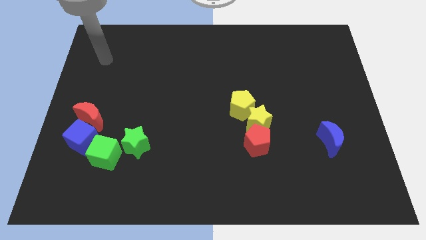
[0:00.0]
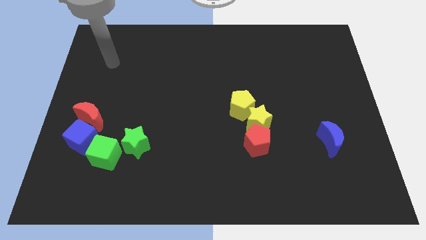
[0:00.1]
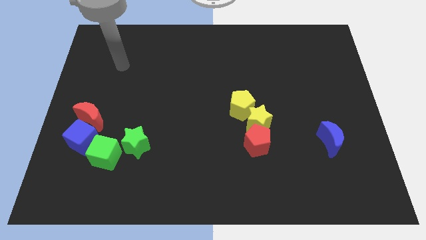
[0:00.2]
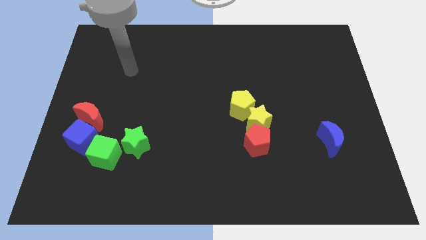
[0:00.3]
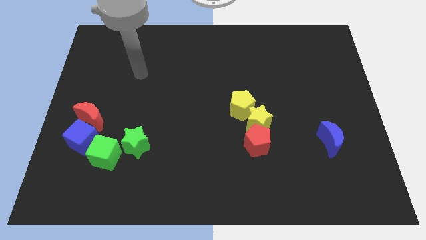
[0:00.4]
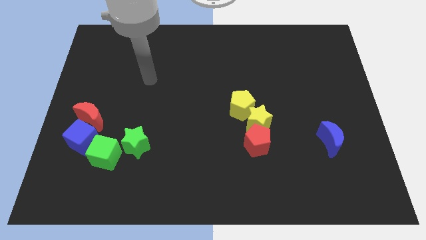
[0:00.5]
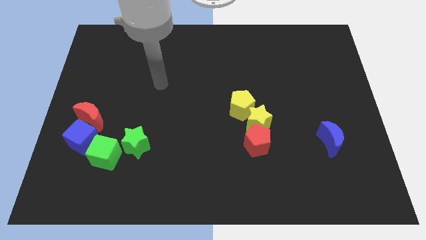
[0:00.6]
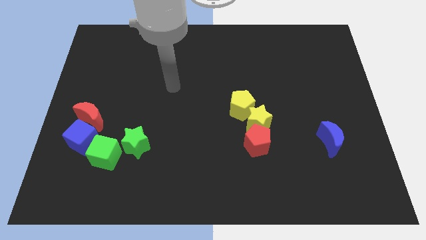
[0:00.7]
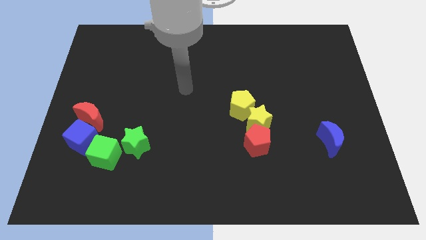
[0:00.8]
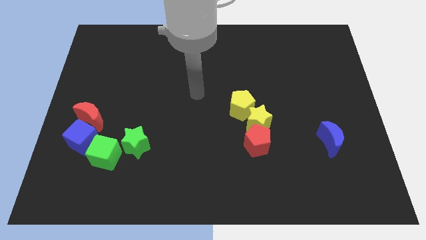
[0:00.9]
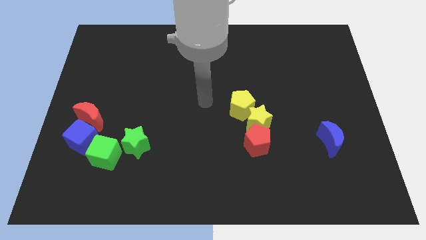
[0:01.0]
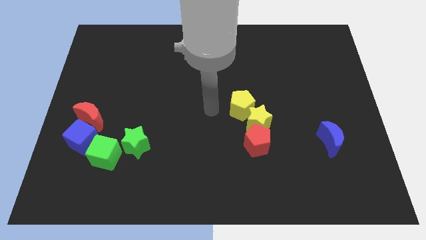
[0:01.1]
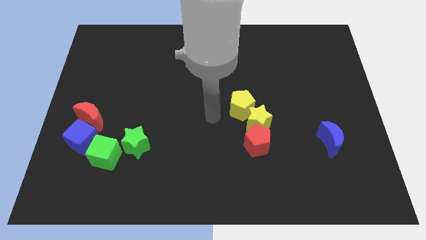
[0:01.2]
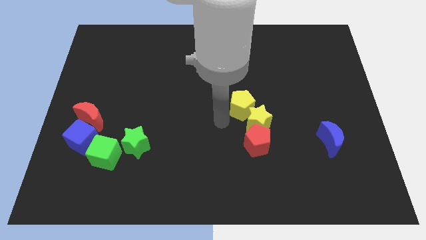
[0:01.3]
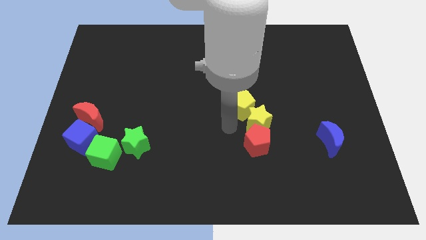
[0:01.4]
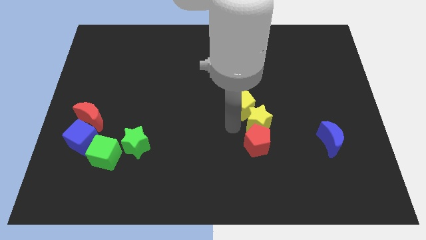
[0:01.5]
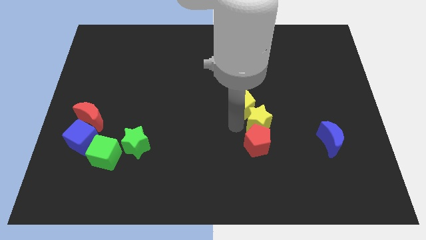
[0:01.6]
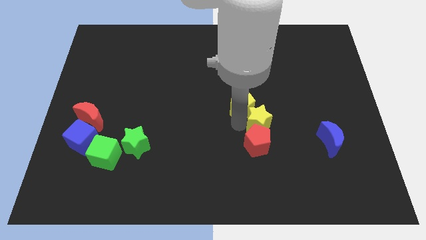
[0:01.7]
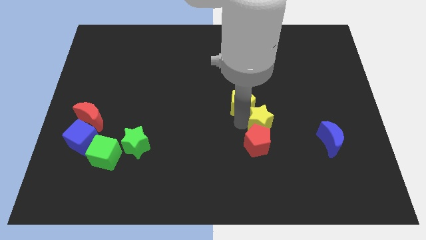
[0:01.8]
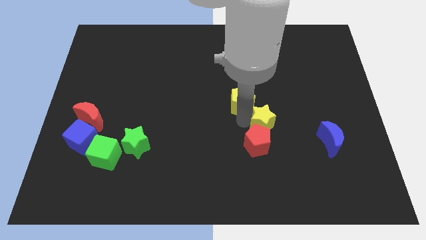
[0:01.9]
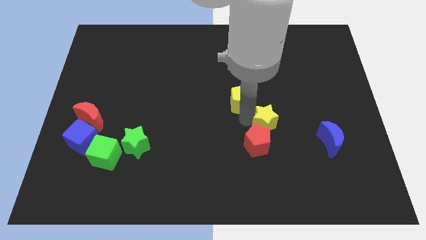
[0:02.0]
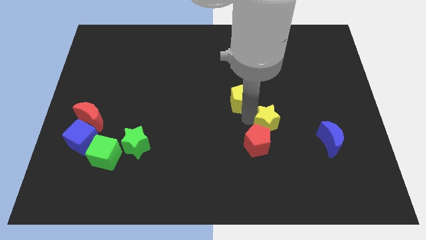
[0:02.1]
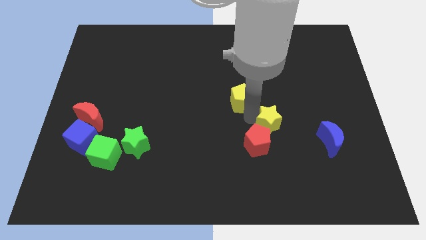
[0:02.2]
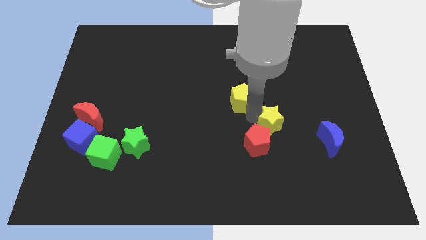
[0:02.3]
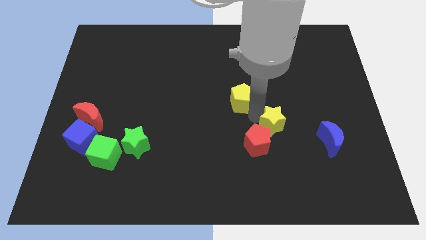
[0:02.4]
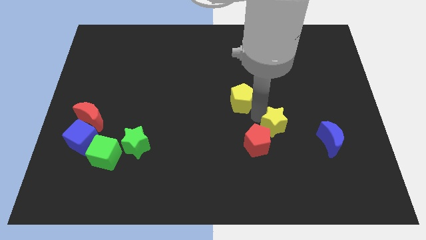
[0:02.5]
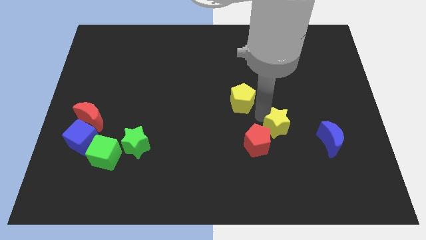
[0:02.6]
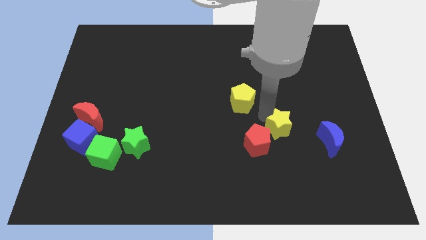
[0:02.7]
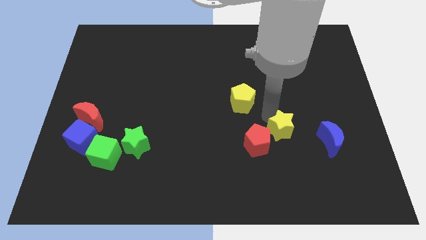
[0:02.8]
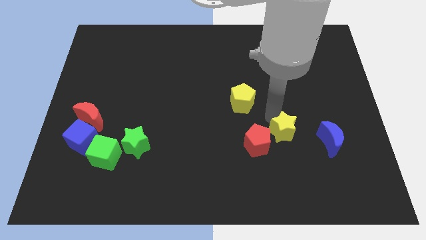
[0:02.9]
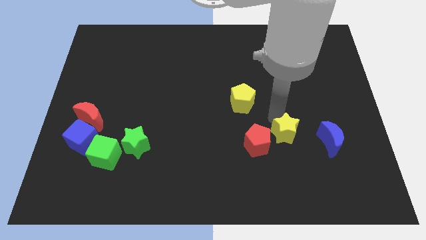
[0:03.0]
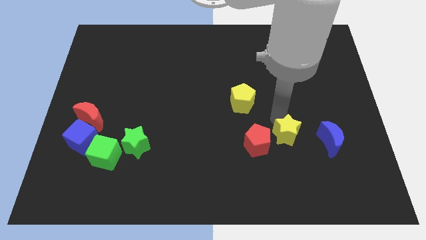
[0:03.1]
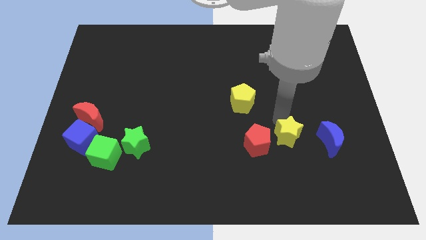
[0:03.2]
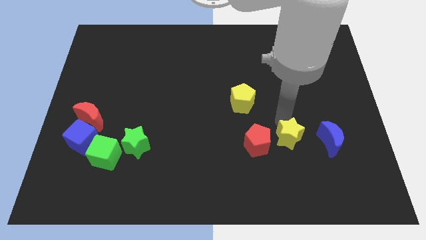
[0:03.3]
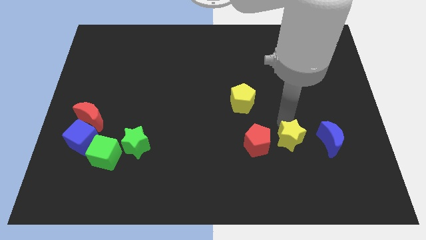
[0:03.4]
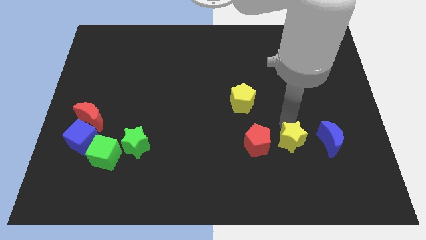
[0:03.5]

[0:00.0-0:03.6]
move the yellow star away from the yellow pentagon and red pentagon

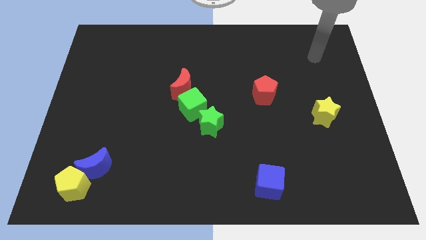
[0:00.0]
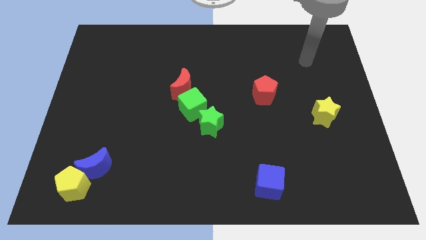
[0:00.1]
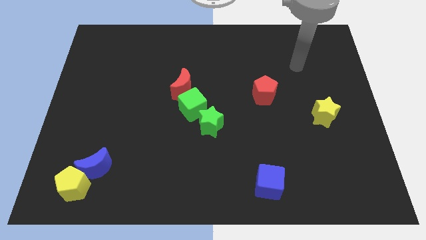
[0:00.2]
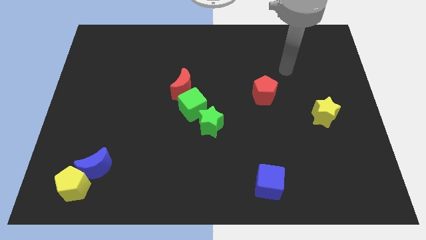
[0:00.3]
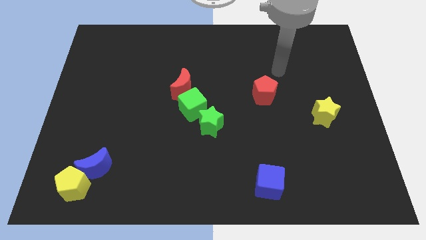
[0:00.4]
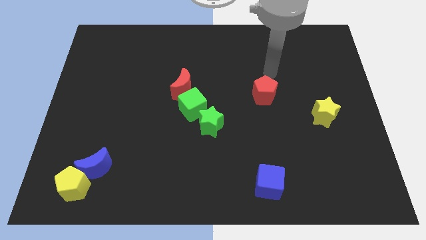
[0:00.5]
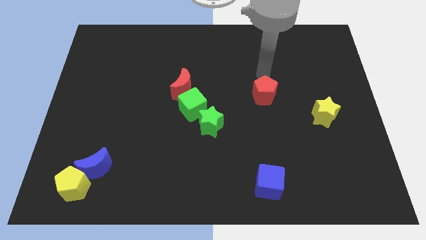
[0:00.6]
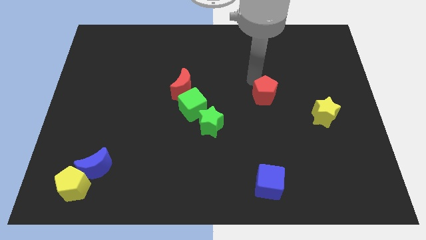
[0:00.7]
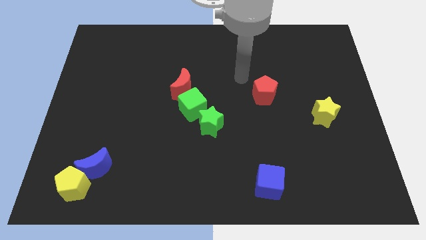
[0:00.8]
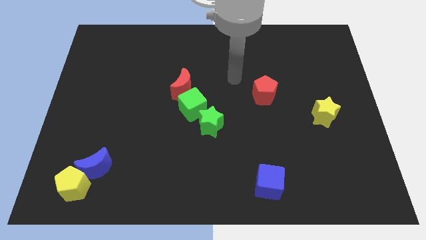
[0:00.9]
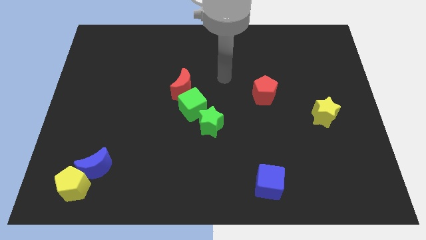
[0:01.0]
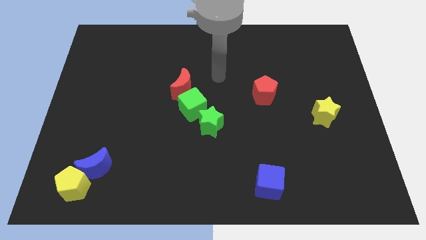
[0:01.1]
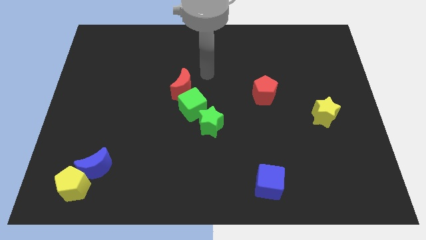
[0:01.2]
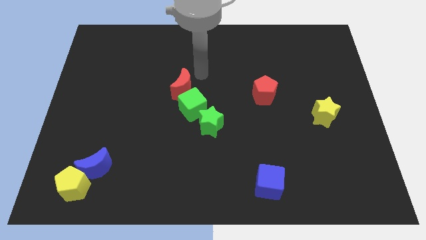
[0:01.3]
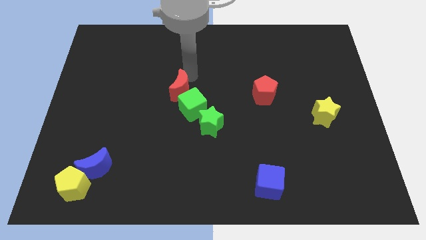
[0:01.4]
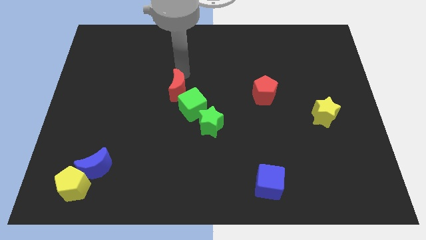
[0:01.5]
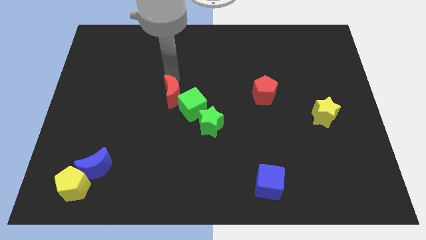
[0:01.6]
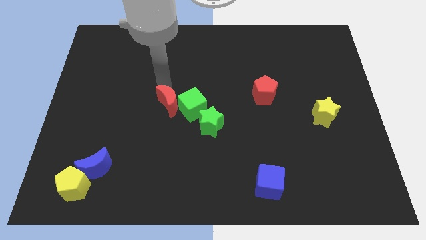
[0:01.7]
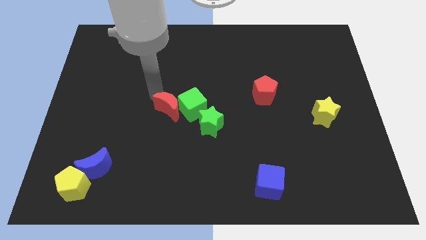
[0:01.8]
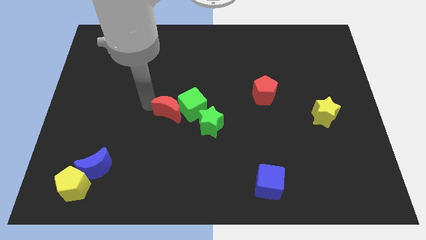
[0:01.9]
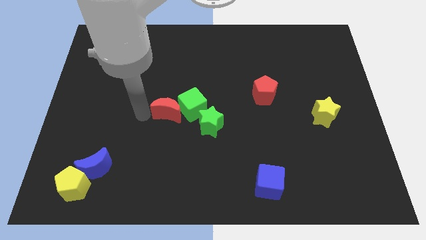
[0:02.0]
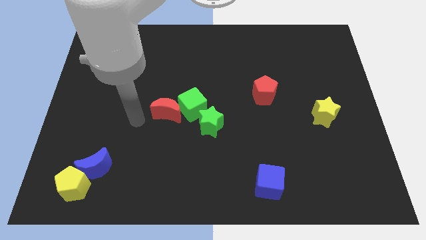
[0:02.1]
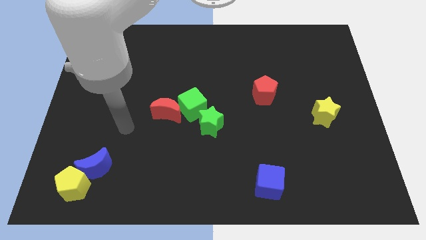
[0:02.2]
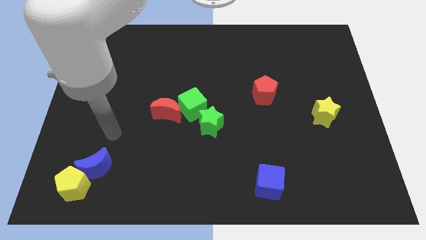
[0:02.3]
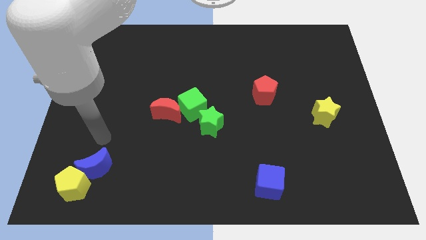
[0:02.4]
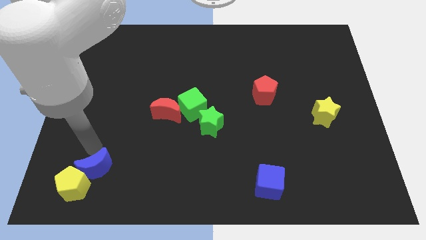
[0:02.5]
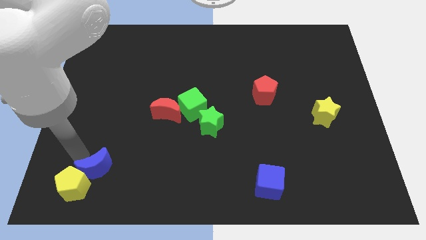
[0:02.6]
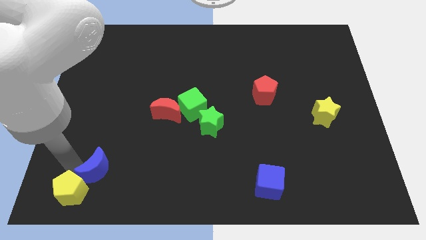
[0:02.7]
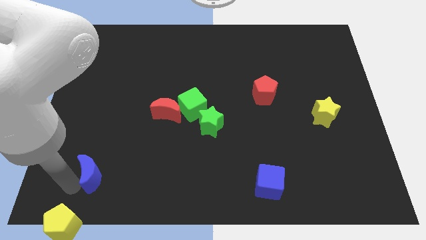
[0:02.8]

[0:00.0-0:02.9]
move the blue moon away from the yellow pentagon

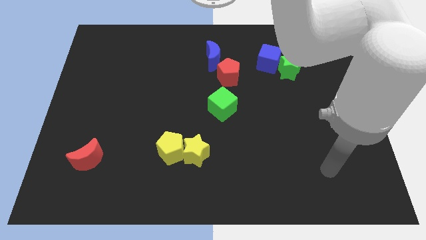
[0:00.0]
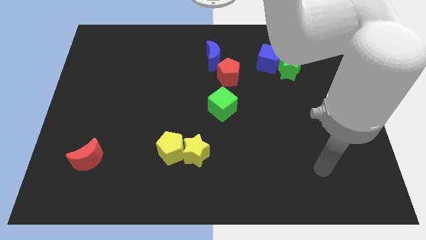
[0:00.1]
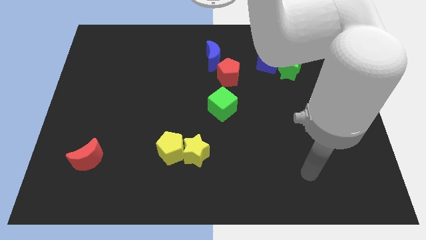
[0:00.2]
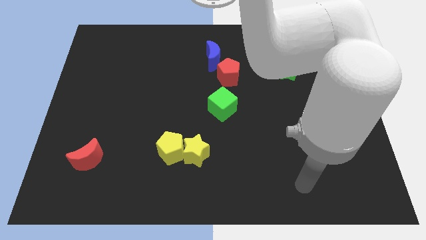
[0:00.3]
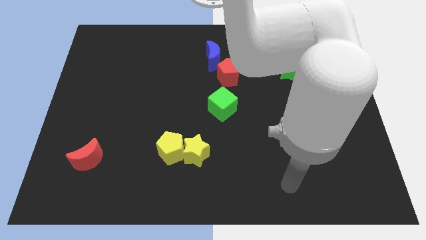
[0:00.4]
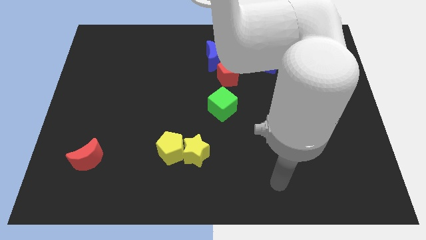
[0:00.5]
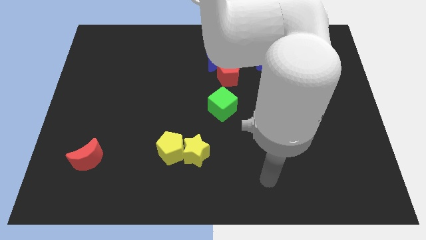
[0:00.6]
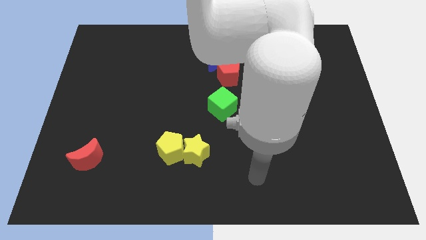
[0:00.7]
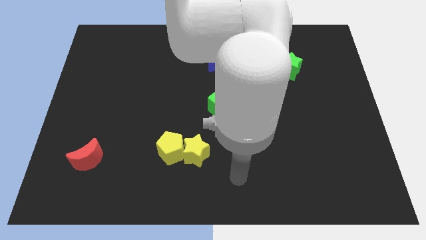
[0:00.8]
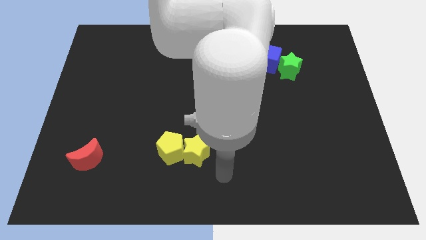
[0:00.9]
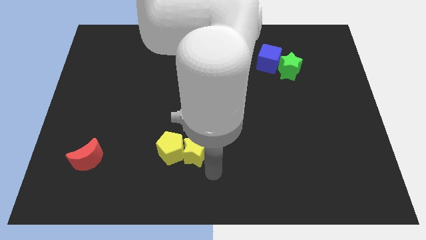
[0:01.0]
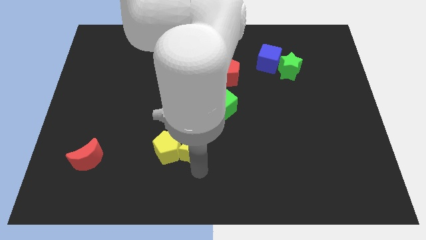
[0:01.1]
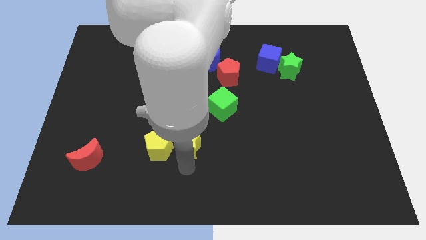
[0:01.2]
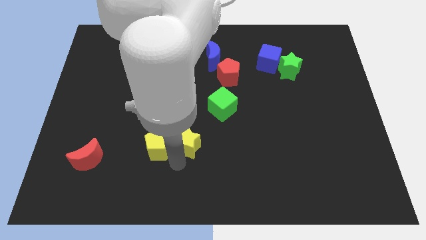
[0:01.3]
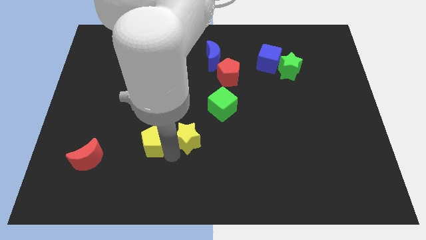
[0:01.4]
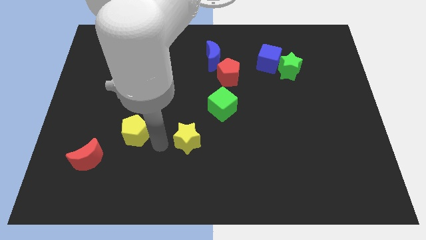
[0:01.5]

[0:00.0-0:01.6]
move the yellow star away from the yellow pentagon

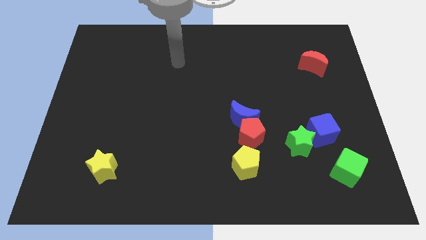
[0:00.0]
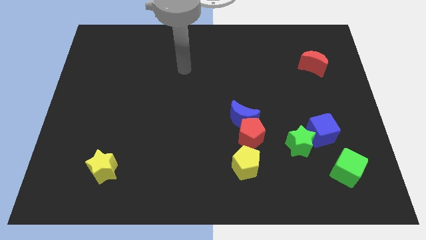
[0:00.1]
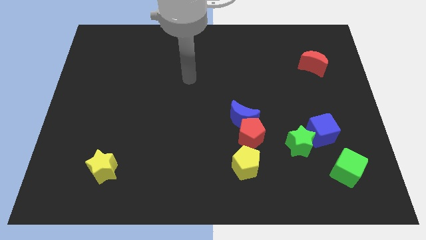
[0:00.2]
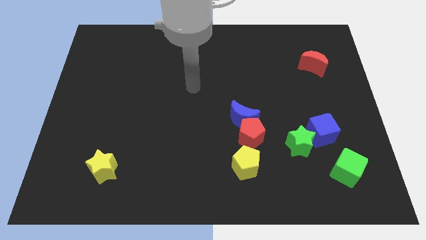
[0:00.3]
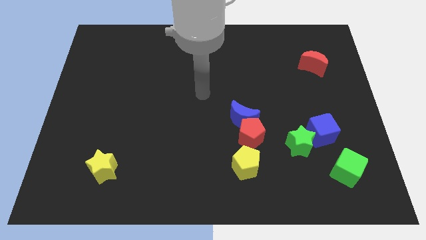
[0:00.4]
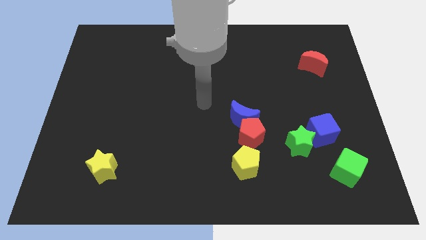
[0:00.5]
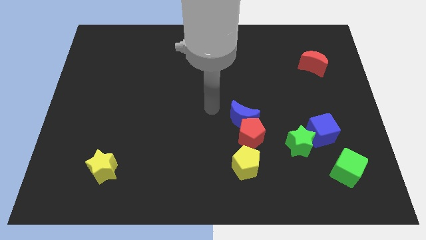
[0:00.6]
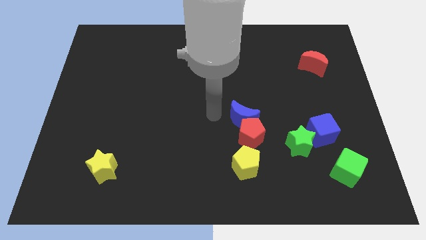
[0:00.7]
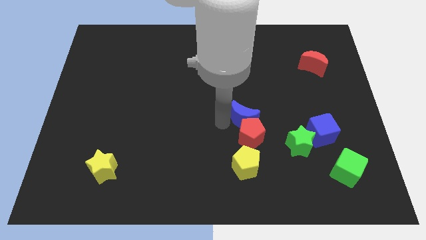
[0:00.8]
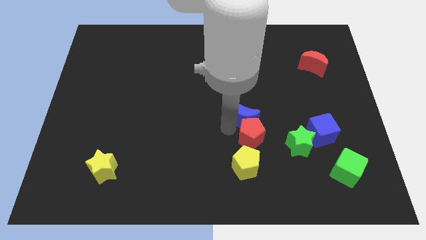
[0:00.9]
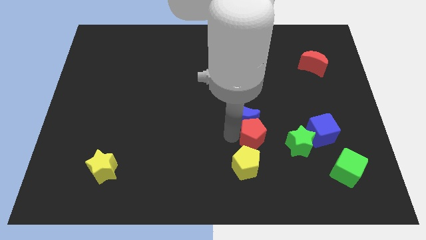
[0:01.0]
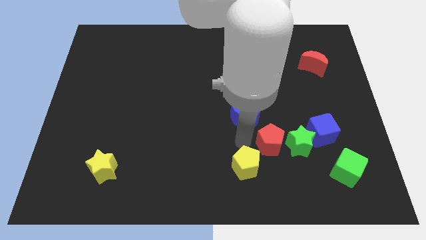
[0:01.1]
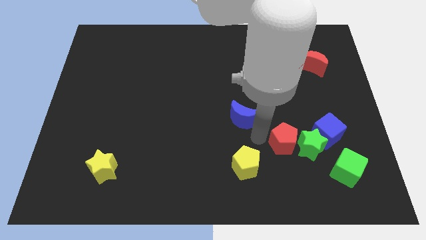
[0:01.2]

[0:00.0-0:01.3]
pull the blue moon apart from the red pentagon

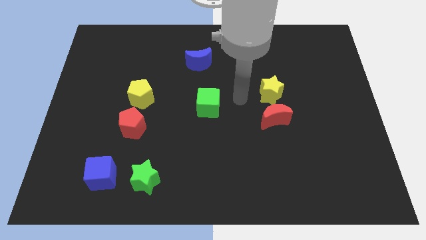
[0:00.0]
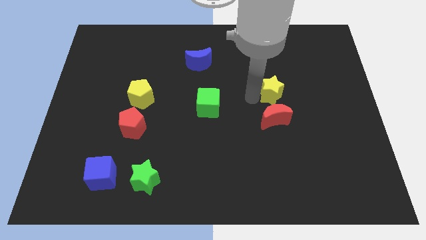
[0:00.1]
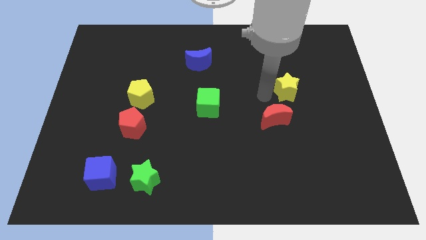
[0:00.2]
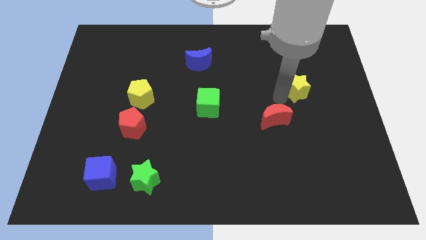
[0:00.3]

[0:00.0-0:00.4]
pull the red moon apart from the yellow star
